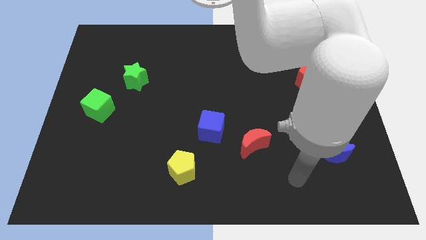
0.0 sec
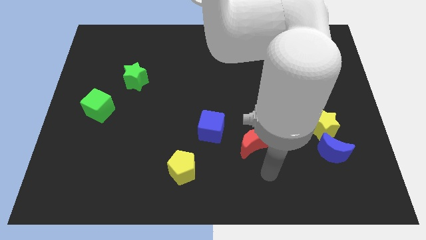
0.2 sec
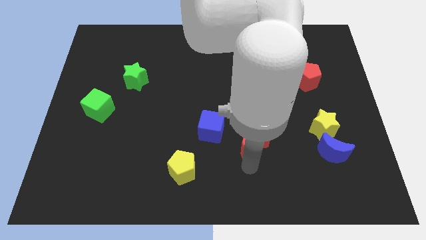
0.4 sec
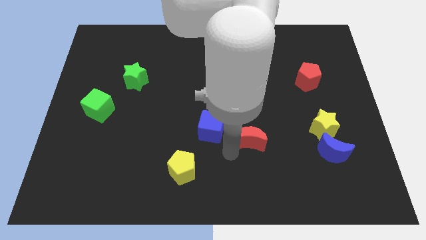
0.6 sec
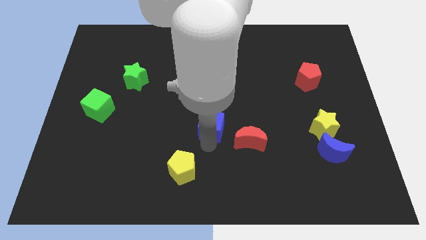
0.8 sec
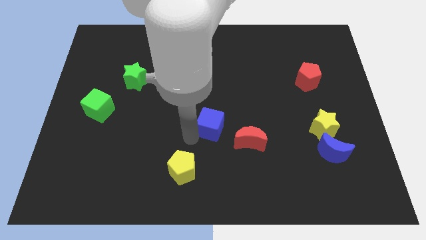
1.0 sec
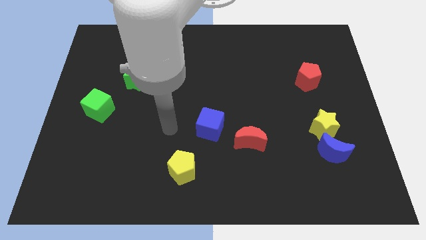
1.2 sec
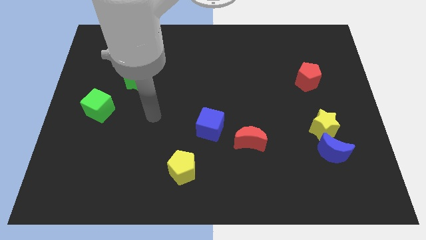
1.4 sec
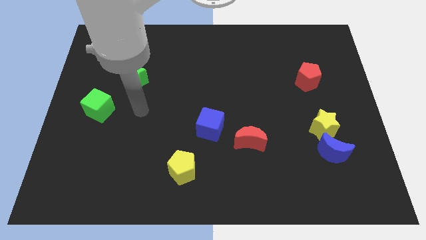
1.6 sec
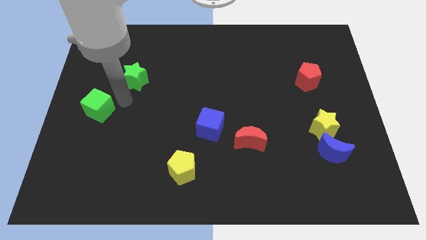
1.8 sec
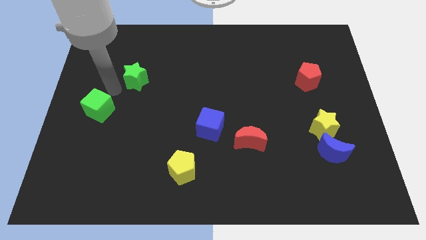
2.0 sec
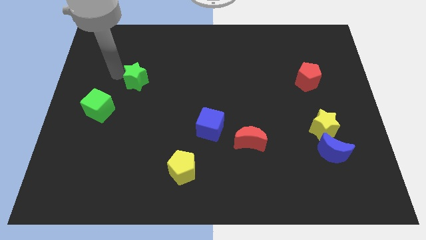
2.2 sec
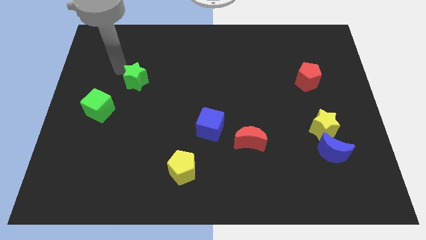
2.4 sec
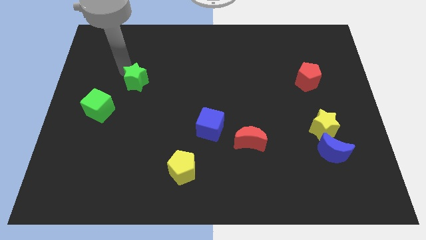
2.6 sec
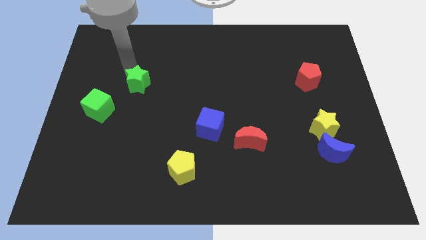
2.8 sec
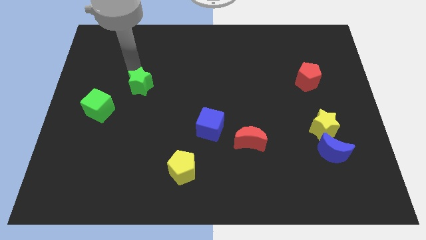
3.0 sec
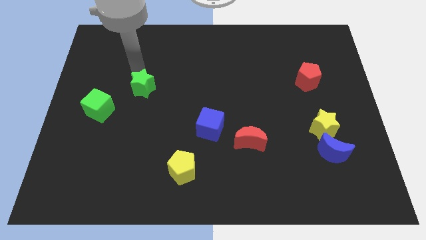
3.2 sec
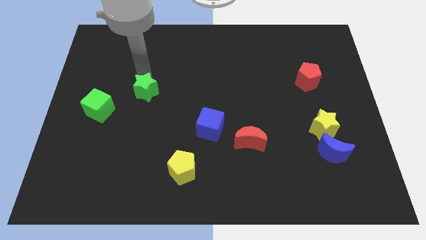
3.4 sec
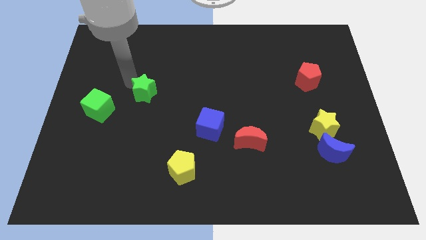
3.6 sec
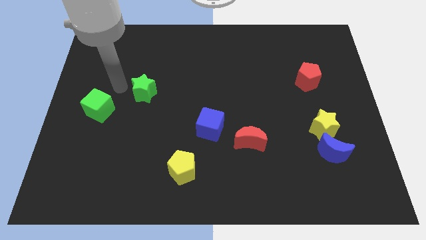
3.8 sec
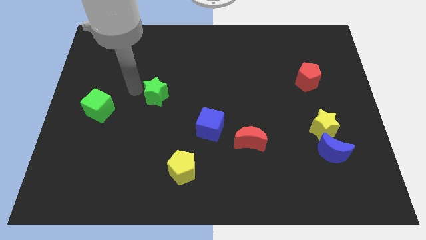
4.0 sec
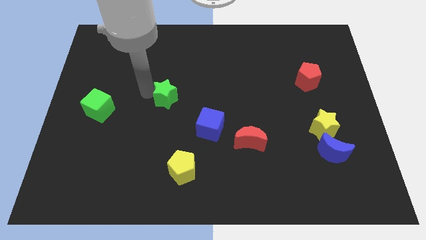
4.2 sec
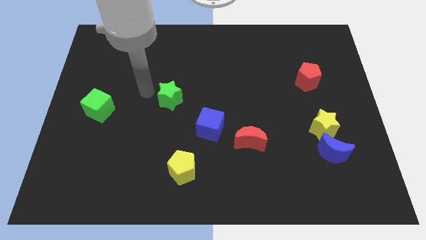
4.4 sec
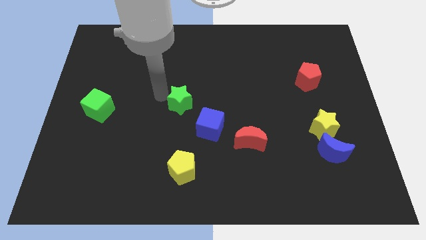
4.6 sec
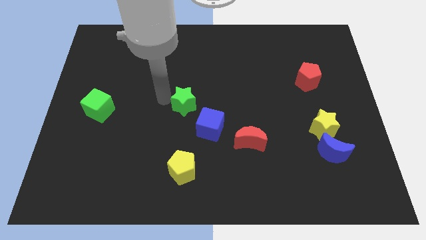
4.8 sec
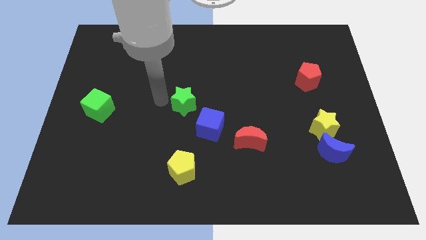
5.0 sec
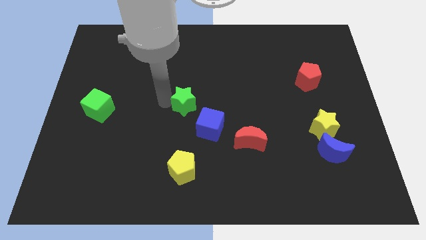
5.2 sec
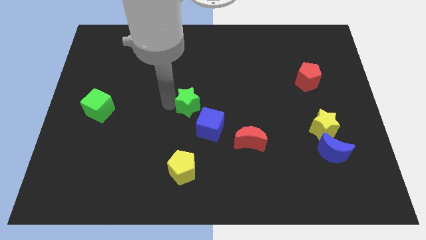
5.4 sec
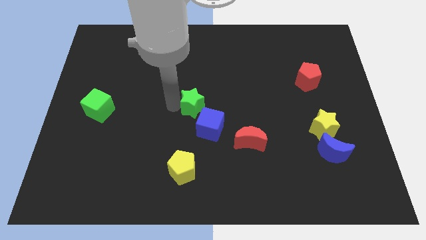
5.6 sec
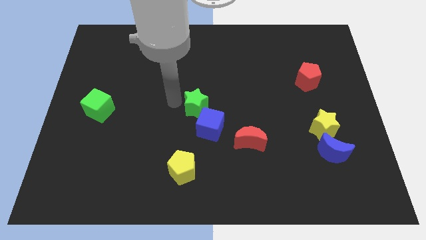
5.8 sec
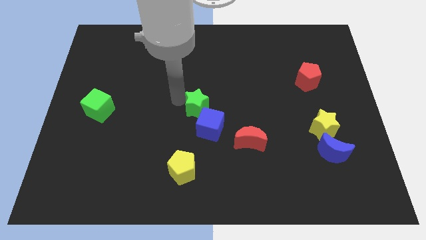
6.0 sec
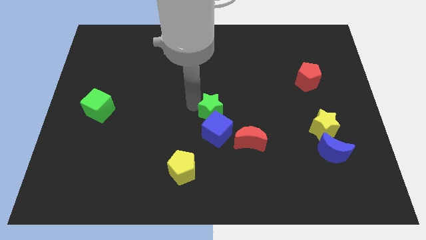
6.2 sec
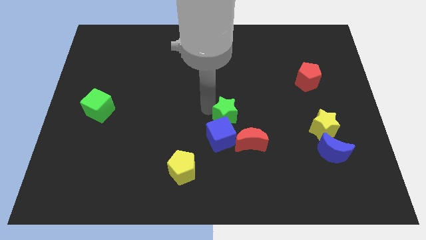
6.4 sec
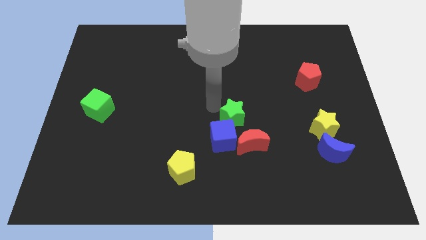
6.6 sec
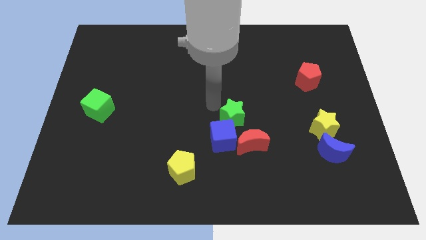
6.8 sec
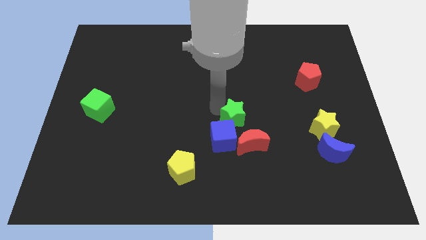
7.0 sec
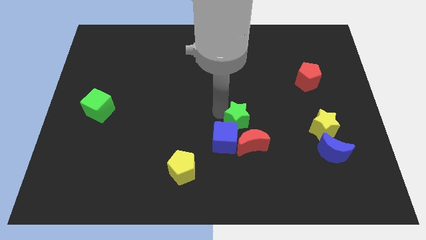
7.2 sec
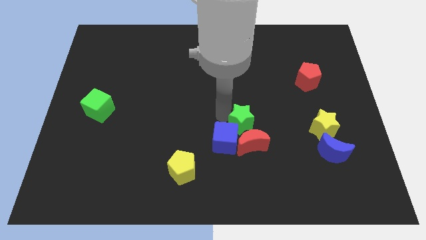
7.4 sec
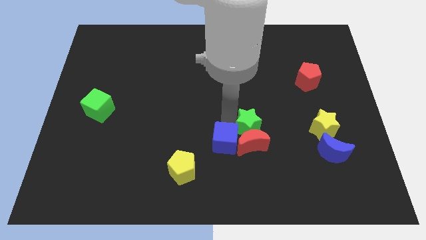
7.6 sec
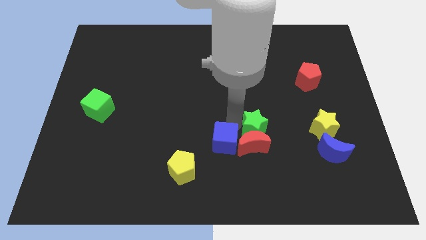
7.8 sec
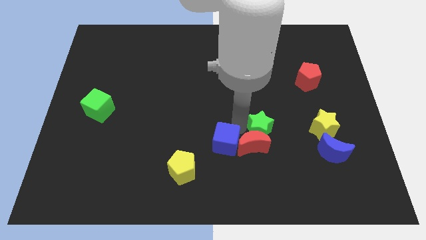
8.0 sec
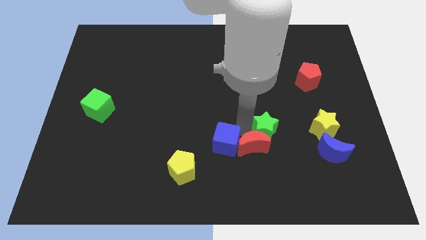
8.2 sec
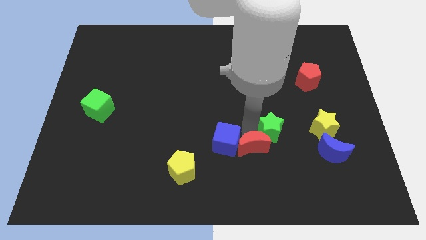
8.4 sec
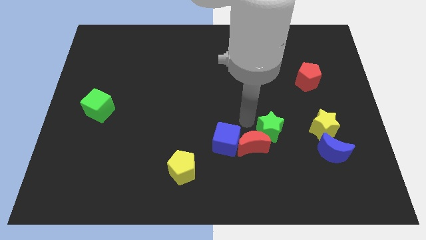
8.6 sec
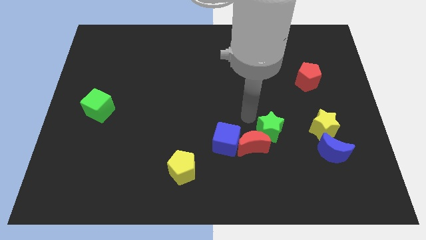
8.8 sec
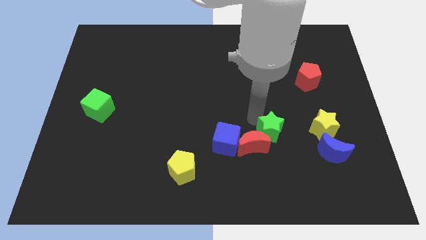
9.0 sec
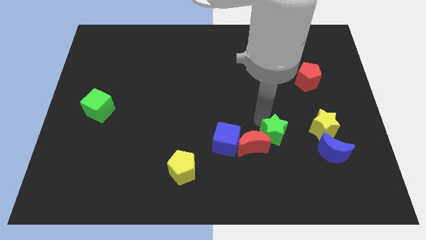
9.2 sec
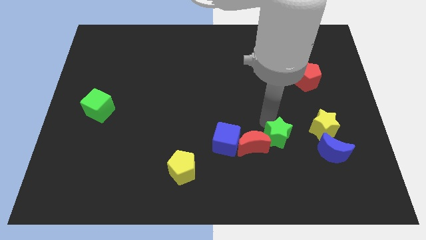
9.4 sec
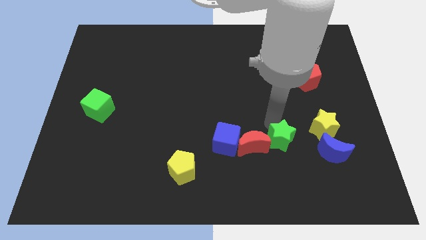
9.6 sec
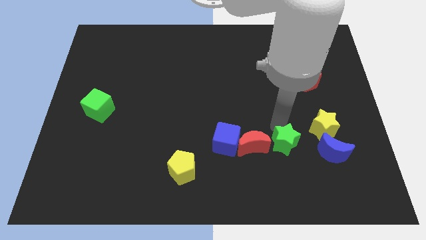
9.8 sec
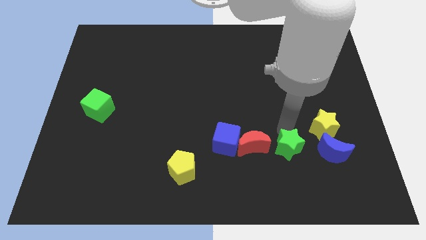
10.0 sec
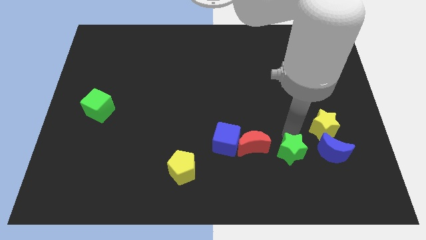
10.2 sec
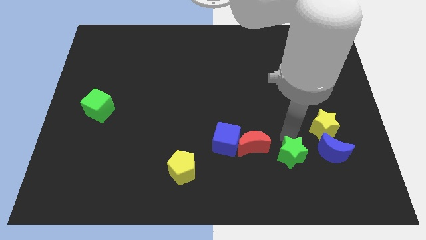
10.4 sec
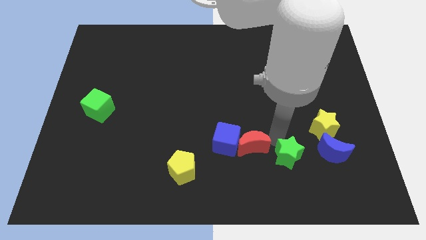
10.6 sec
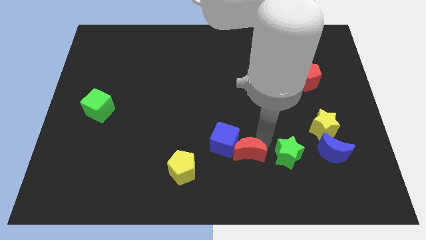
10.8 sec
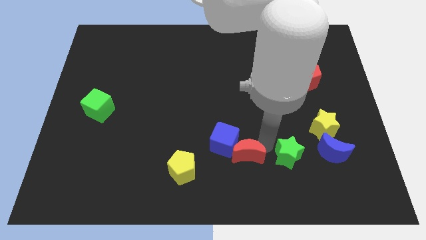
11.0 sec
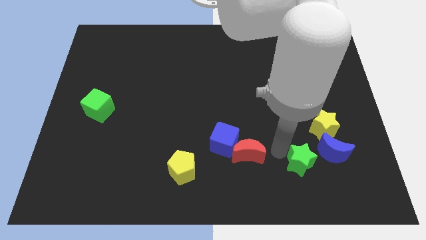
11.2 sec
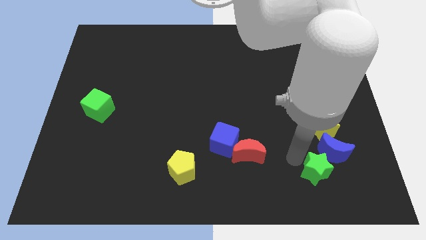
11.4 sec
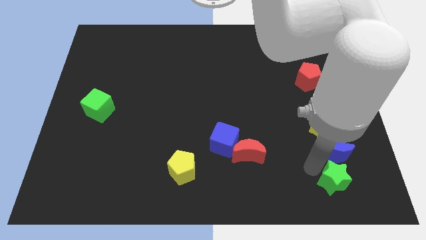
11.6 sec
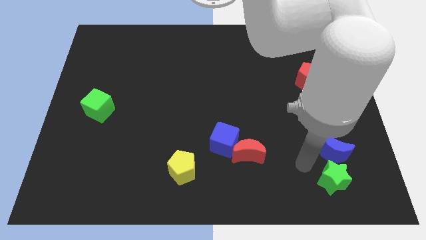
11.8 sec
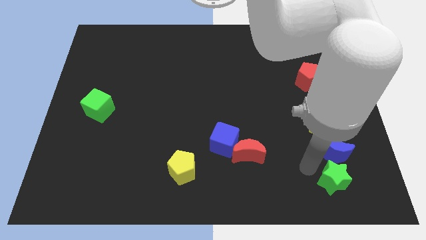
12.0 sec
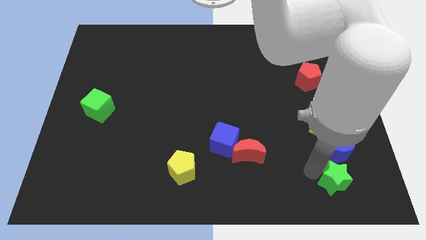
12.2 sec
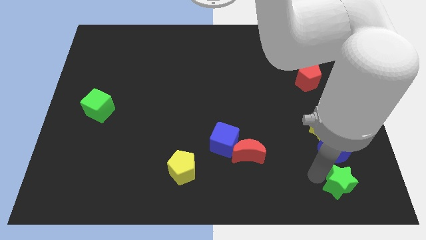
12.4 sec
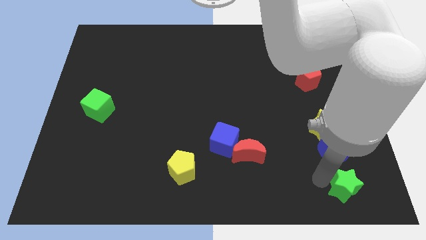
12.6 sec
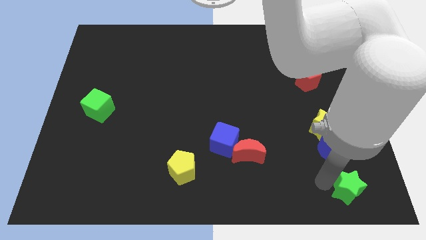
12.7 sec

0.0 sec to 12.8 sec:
put the green star to the bottom right

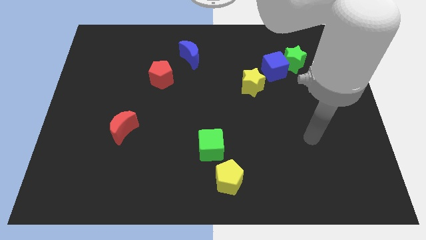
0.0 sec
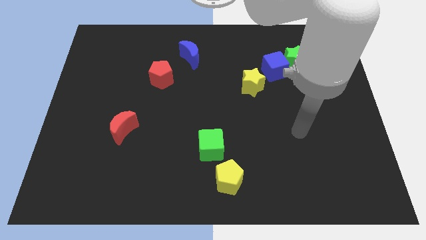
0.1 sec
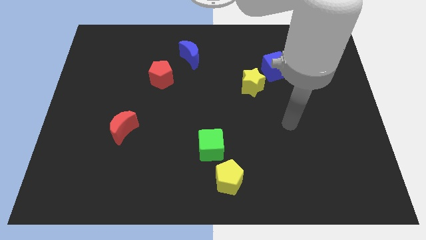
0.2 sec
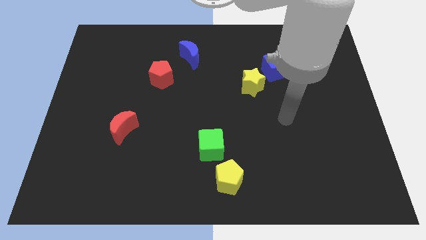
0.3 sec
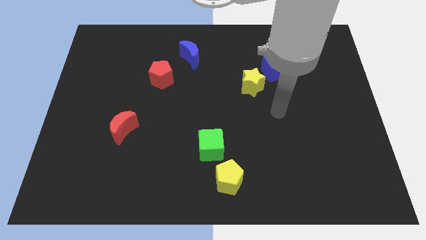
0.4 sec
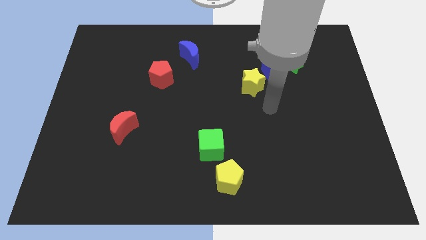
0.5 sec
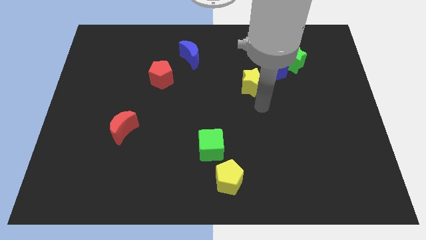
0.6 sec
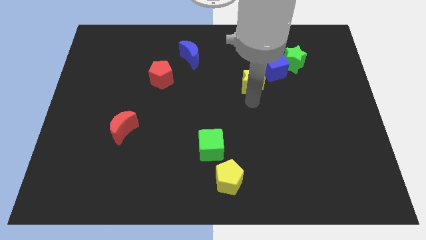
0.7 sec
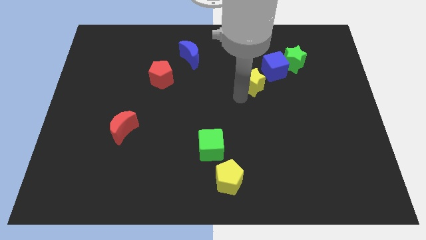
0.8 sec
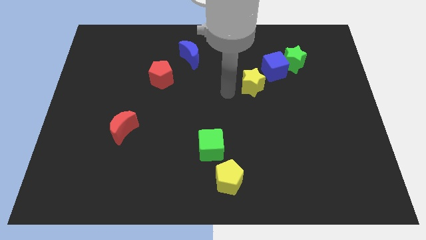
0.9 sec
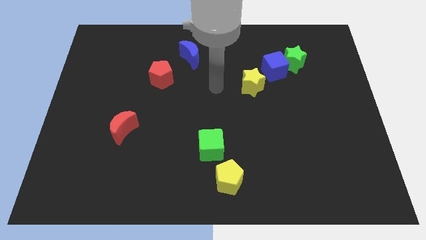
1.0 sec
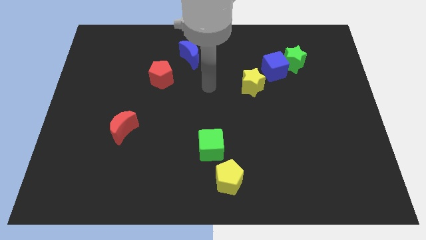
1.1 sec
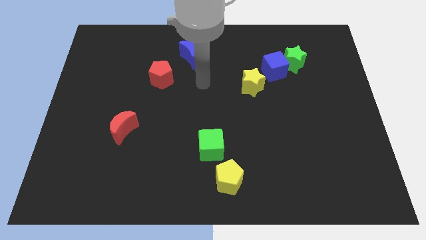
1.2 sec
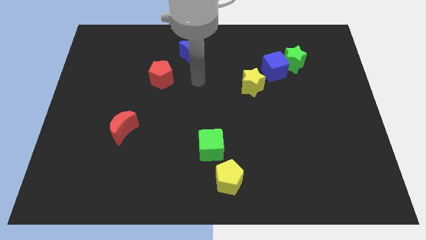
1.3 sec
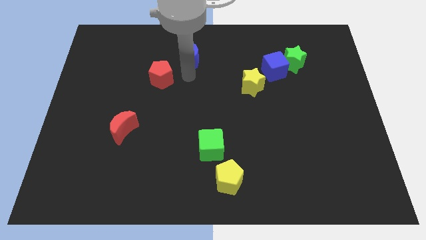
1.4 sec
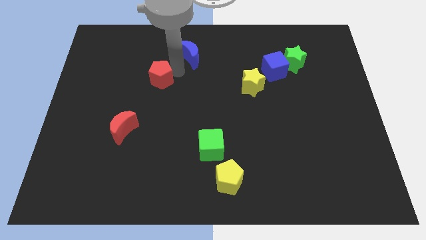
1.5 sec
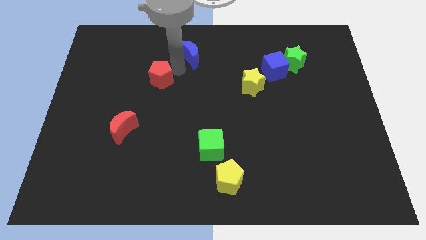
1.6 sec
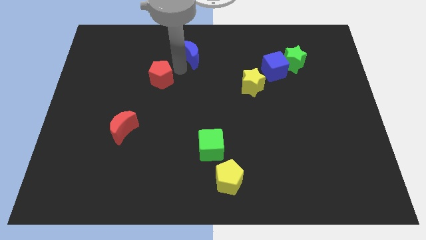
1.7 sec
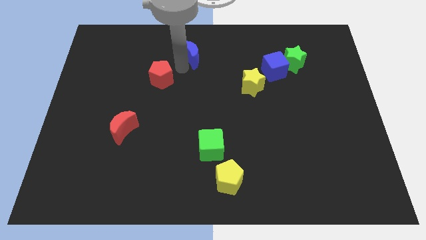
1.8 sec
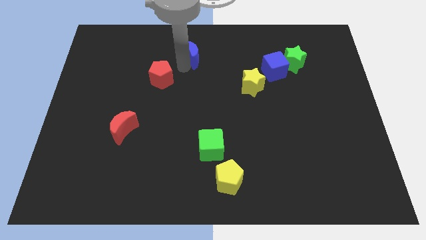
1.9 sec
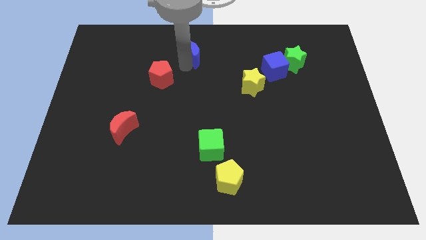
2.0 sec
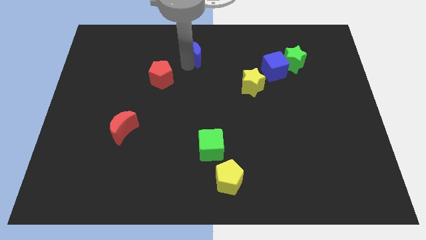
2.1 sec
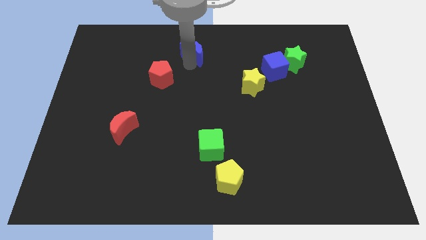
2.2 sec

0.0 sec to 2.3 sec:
move the blue moon to the top side
